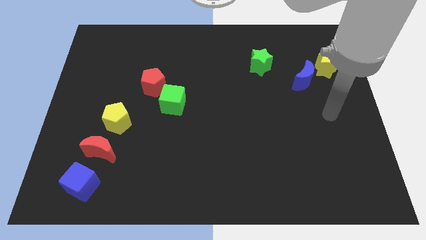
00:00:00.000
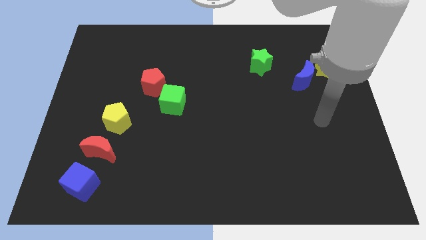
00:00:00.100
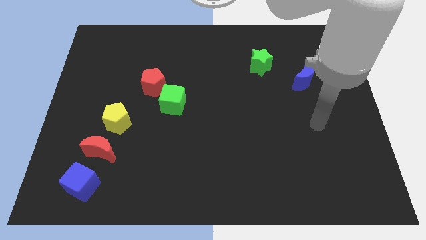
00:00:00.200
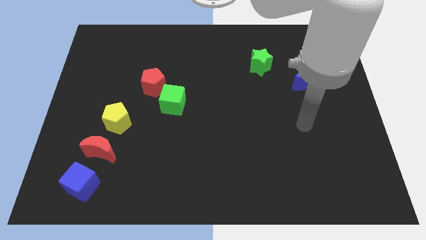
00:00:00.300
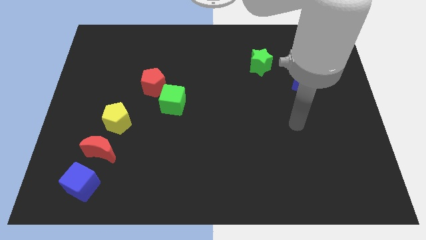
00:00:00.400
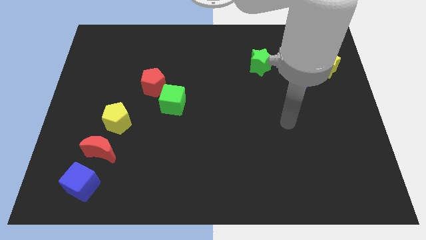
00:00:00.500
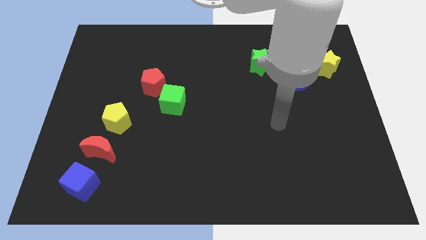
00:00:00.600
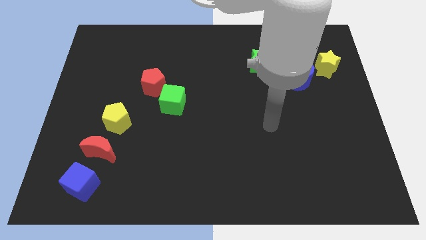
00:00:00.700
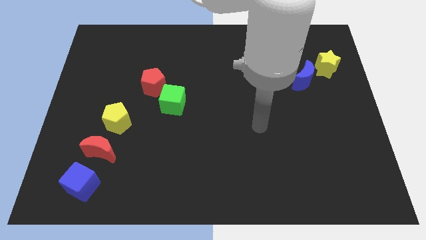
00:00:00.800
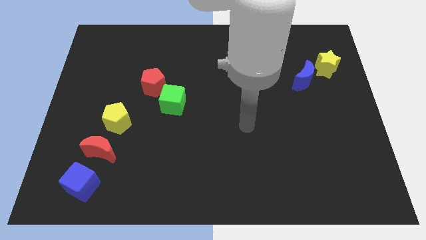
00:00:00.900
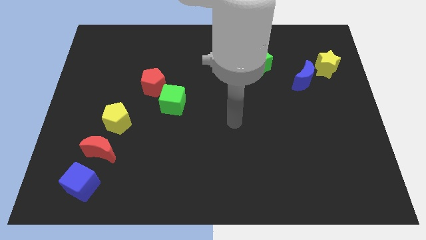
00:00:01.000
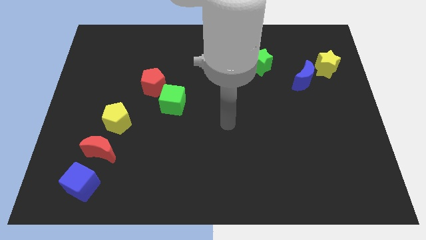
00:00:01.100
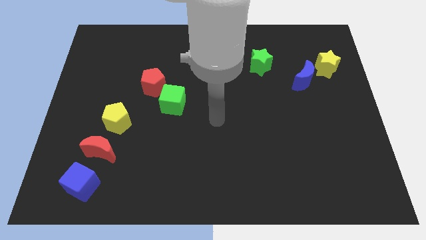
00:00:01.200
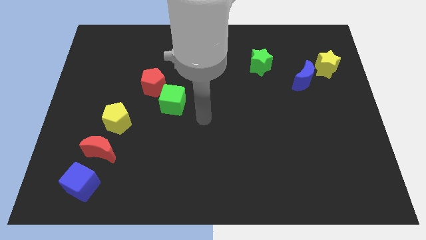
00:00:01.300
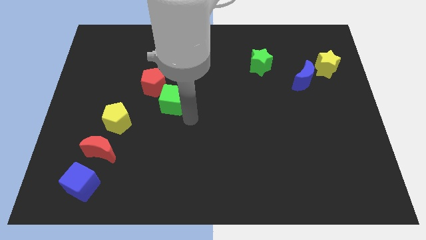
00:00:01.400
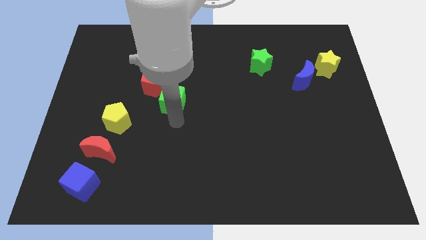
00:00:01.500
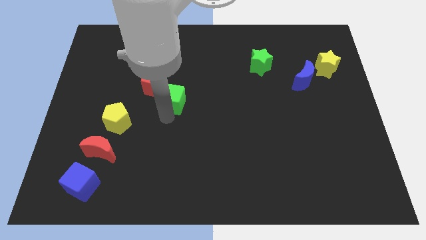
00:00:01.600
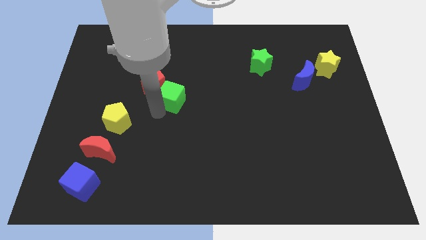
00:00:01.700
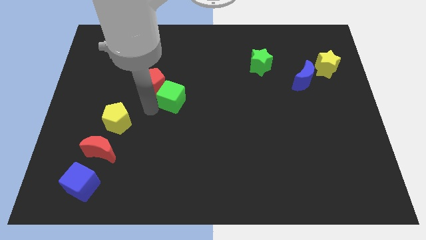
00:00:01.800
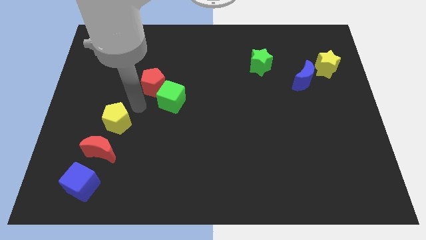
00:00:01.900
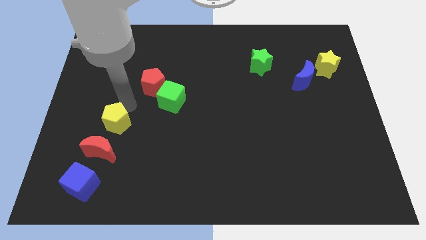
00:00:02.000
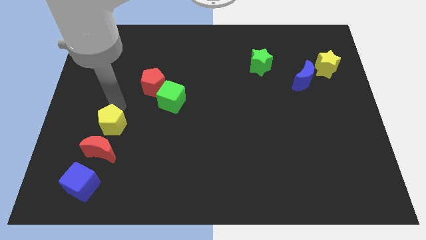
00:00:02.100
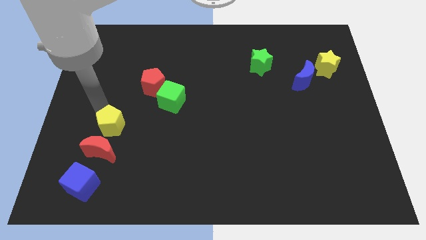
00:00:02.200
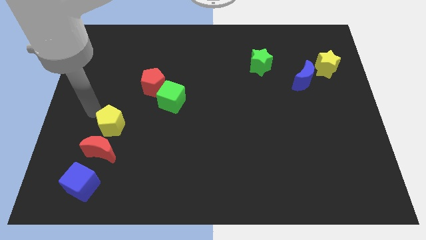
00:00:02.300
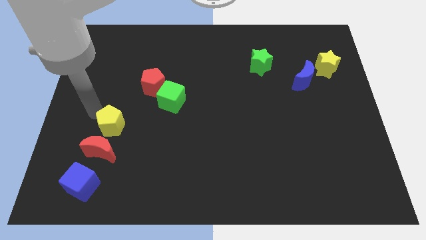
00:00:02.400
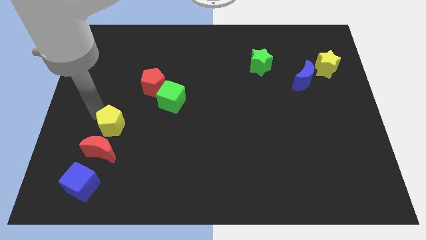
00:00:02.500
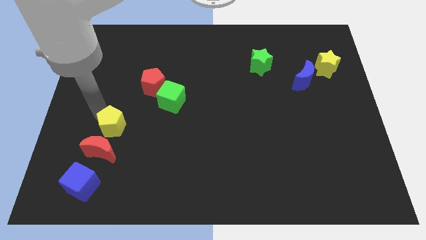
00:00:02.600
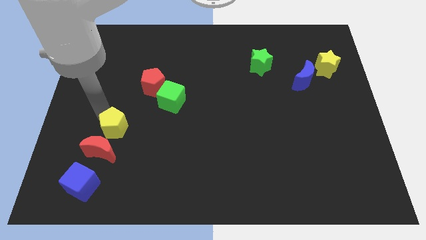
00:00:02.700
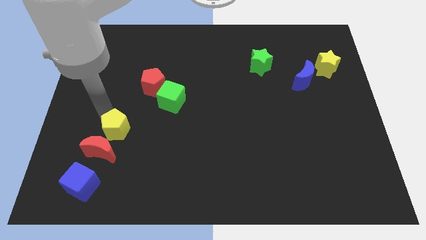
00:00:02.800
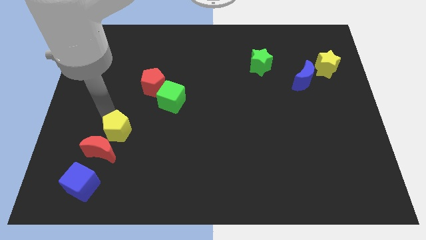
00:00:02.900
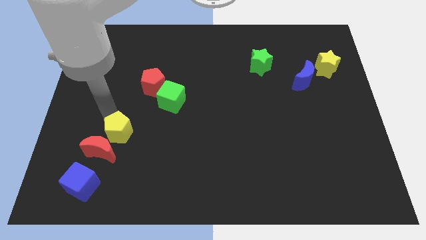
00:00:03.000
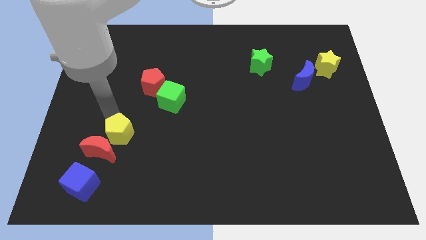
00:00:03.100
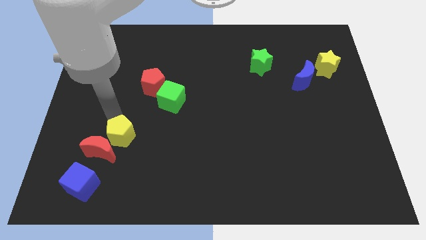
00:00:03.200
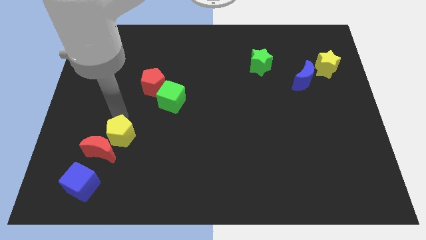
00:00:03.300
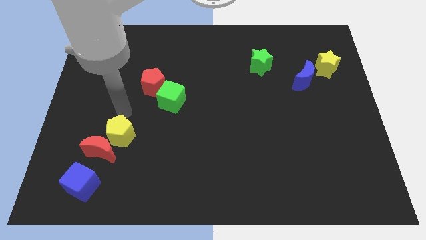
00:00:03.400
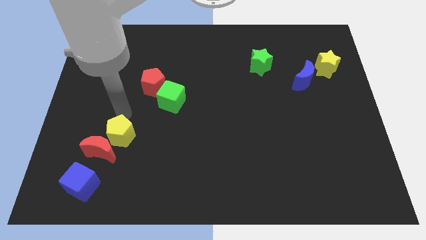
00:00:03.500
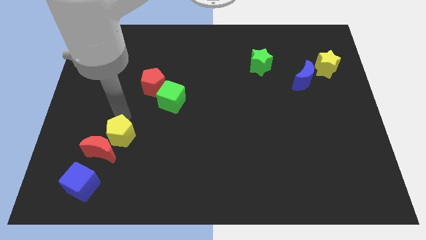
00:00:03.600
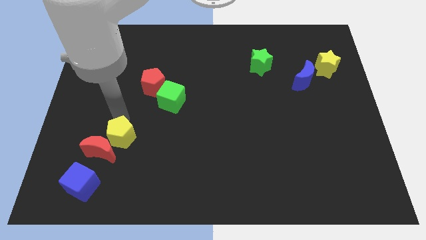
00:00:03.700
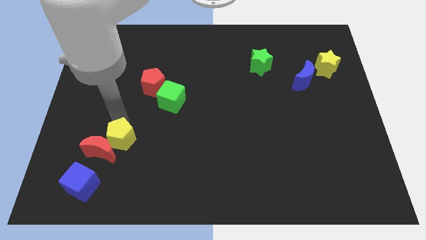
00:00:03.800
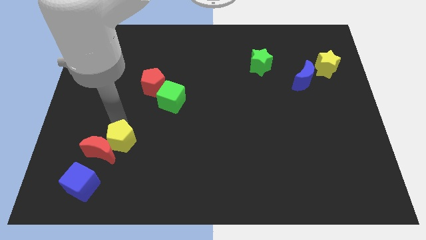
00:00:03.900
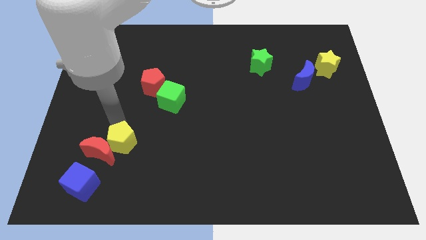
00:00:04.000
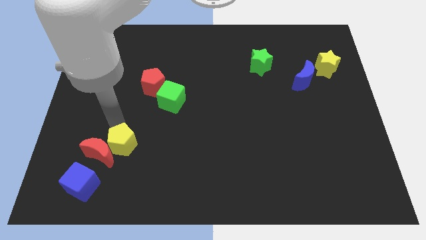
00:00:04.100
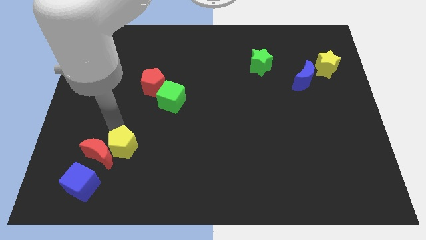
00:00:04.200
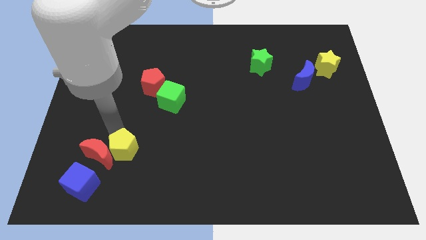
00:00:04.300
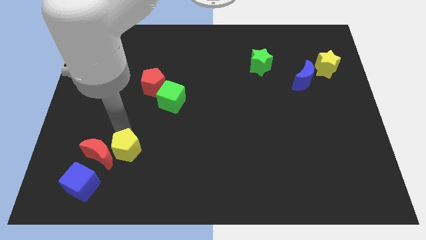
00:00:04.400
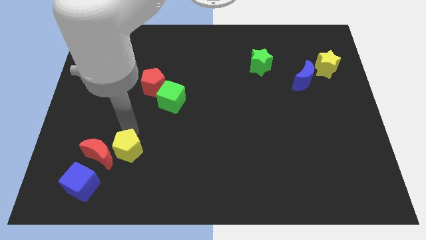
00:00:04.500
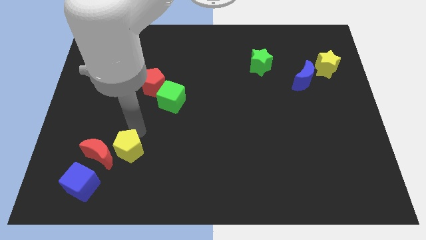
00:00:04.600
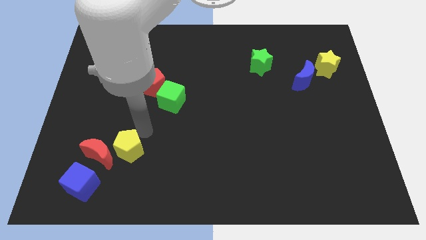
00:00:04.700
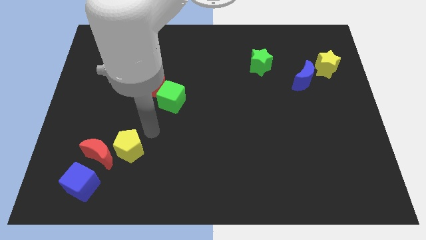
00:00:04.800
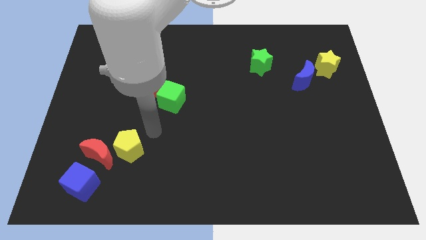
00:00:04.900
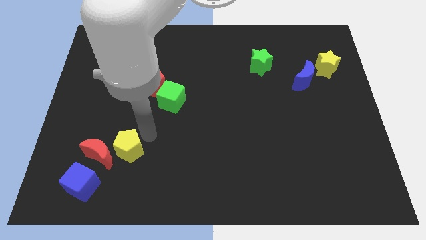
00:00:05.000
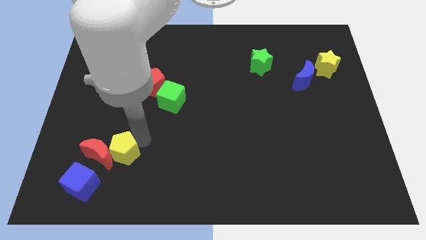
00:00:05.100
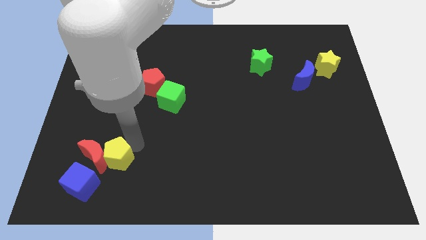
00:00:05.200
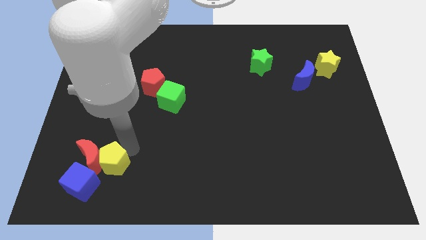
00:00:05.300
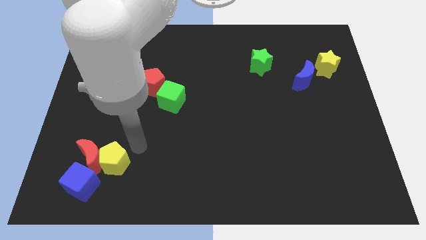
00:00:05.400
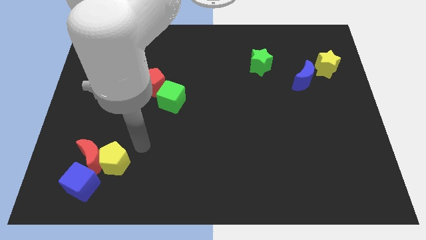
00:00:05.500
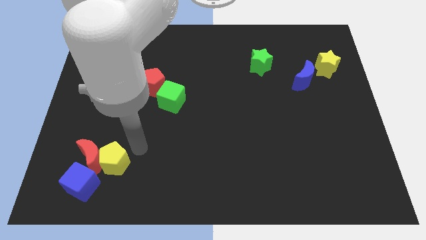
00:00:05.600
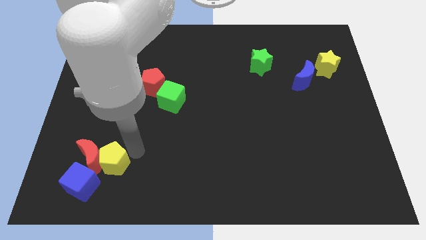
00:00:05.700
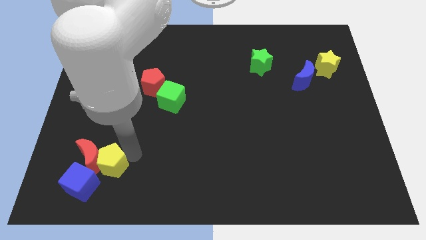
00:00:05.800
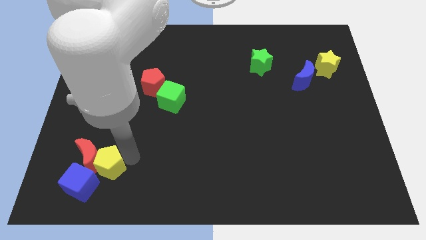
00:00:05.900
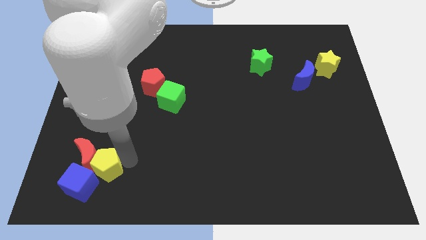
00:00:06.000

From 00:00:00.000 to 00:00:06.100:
move the yellow pentagon towards the blue cube

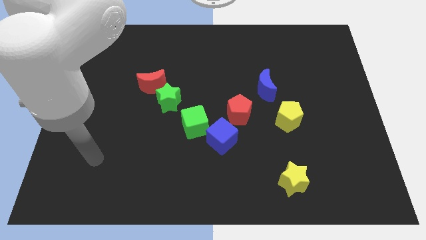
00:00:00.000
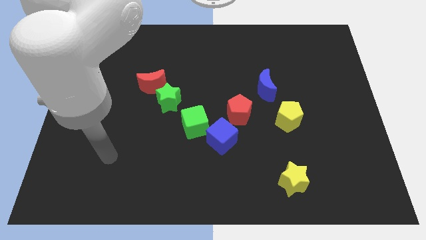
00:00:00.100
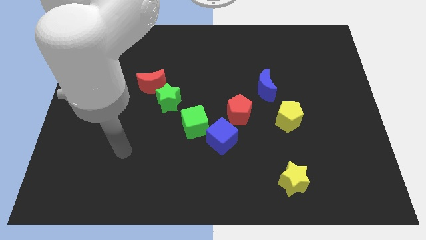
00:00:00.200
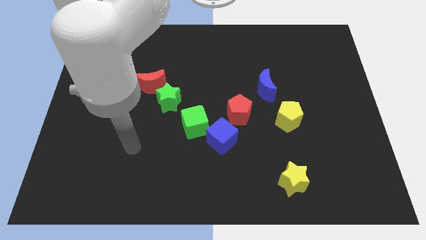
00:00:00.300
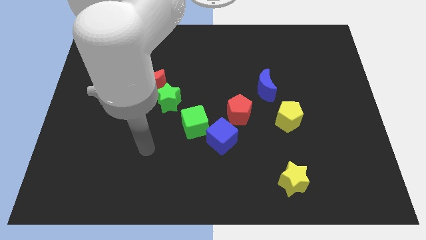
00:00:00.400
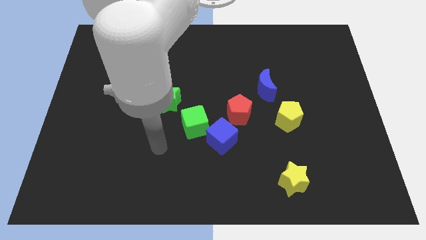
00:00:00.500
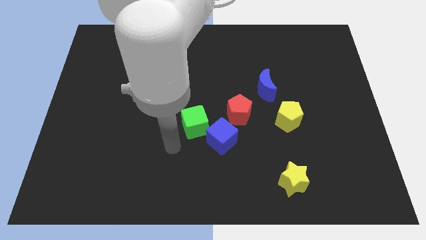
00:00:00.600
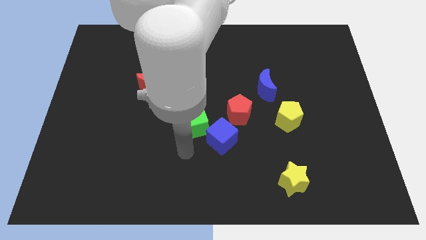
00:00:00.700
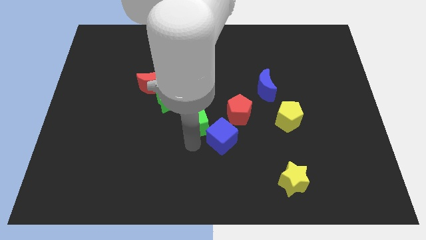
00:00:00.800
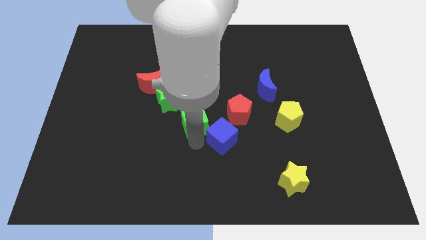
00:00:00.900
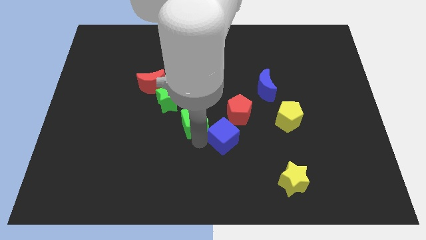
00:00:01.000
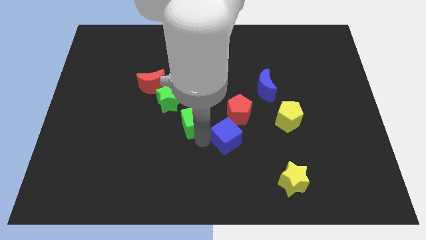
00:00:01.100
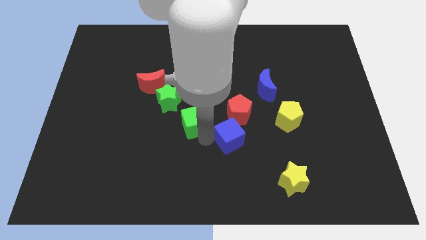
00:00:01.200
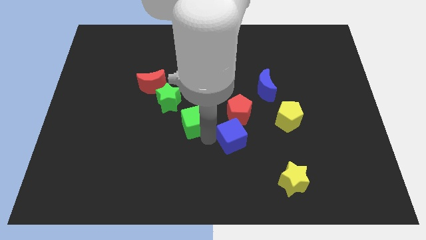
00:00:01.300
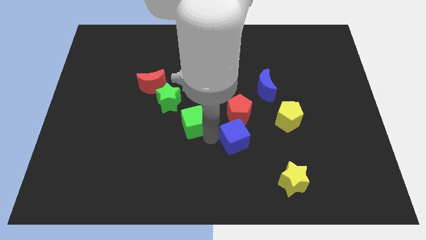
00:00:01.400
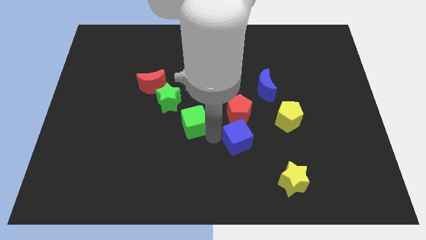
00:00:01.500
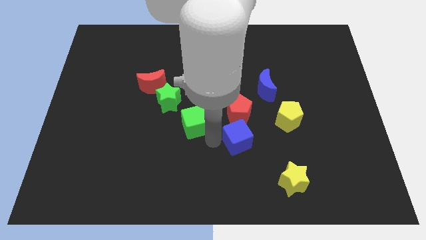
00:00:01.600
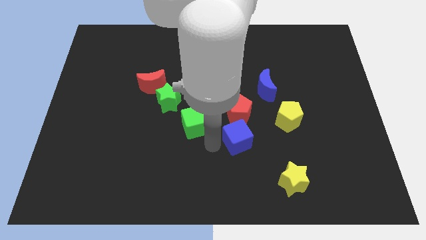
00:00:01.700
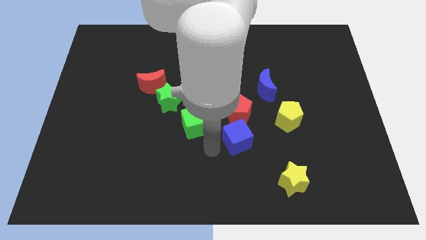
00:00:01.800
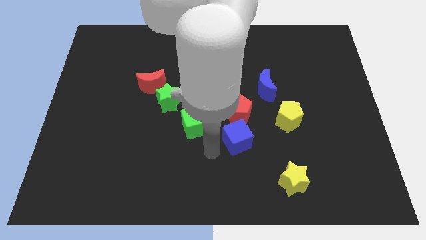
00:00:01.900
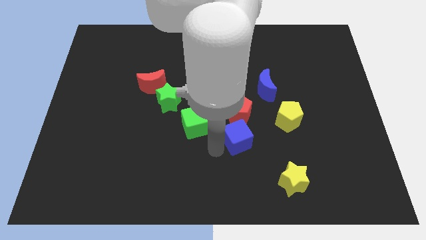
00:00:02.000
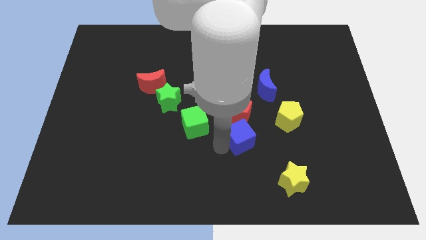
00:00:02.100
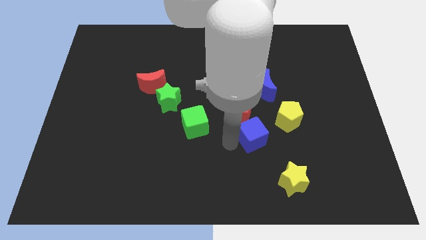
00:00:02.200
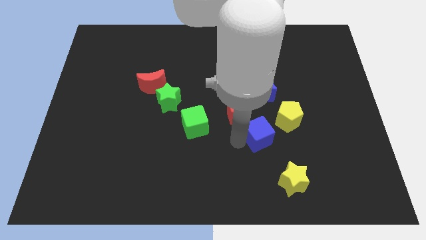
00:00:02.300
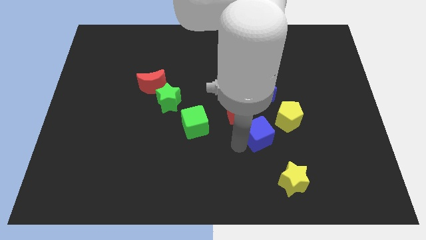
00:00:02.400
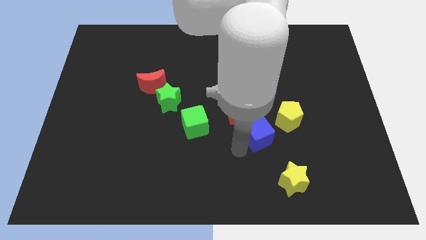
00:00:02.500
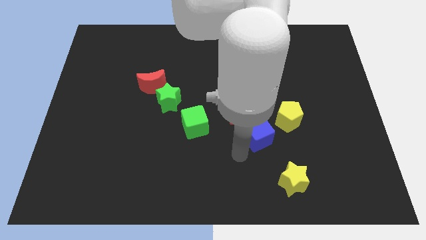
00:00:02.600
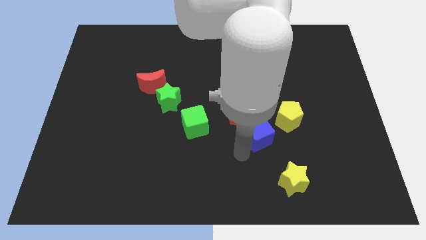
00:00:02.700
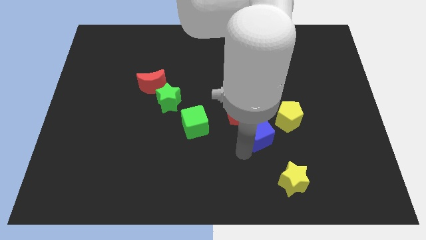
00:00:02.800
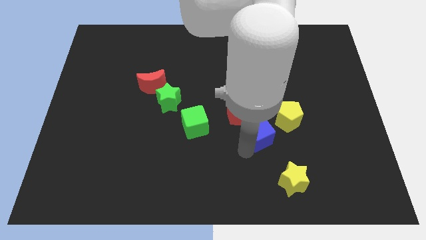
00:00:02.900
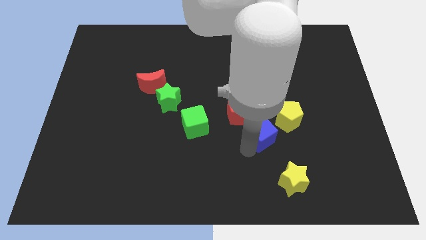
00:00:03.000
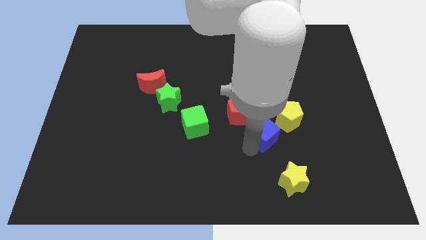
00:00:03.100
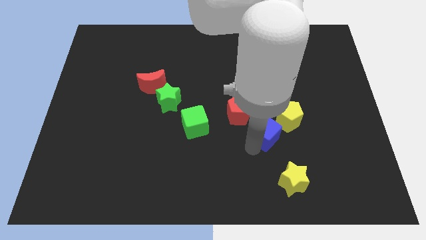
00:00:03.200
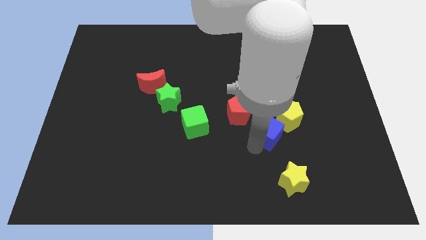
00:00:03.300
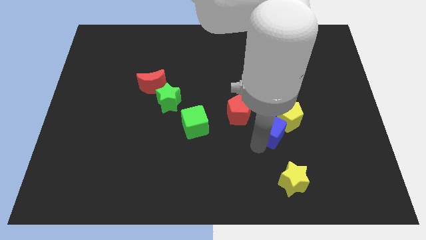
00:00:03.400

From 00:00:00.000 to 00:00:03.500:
slide the blue cube close to the yellow pentagon
